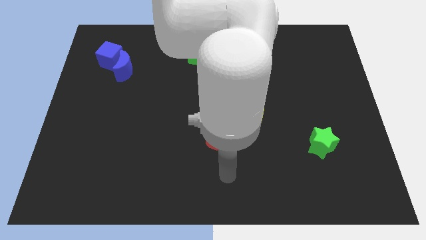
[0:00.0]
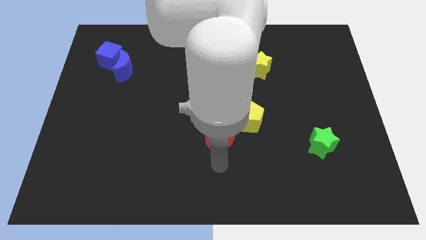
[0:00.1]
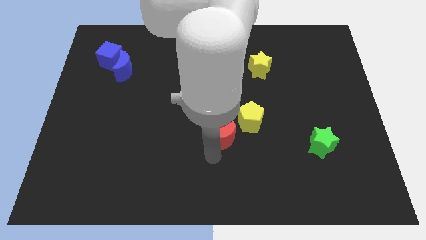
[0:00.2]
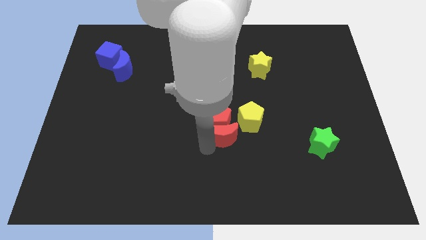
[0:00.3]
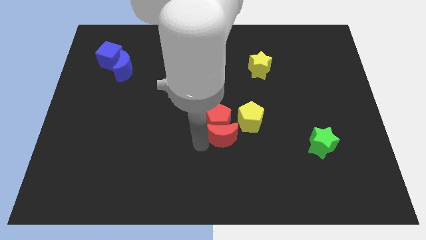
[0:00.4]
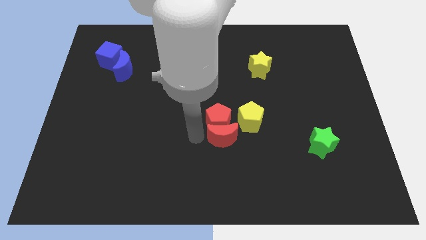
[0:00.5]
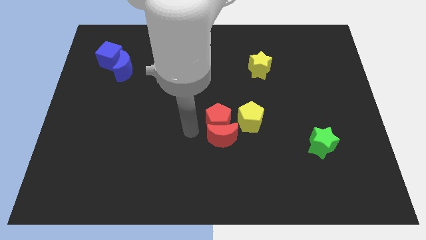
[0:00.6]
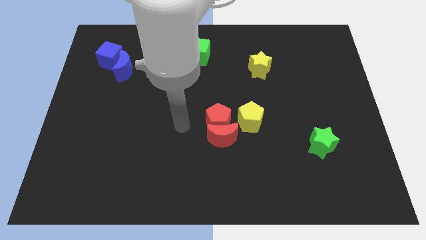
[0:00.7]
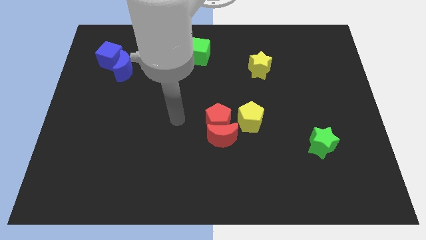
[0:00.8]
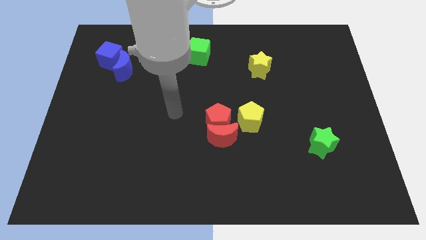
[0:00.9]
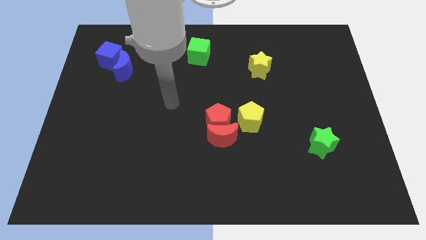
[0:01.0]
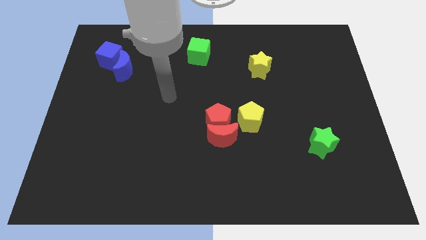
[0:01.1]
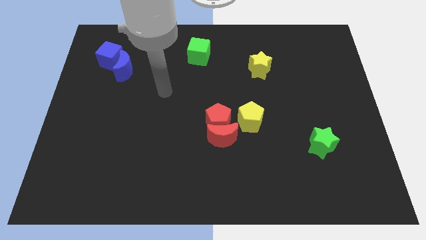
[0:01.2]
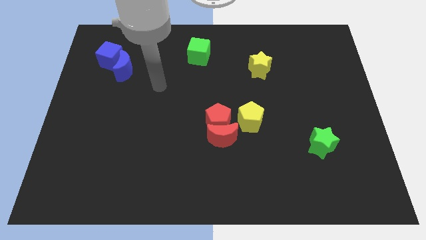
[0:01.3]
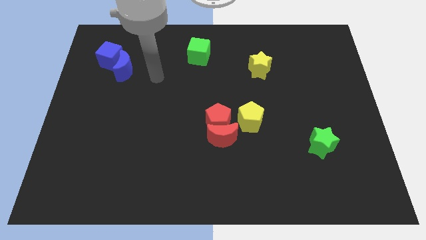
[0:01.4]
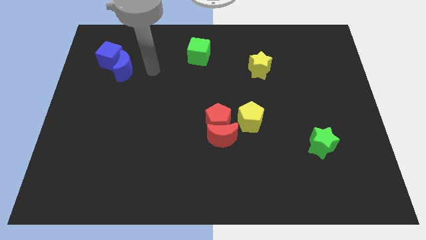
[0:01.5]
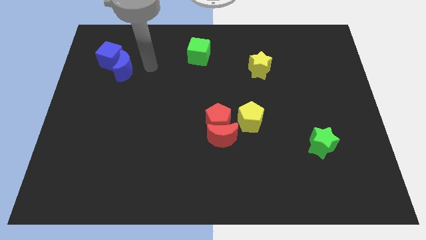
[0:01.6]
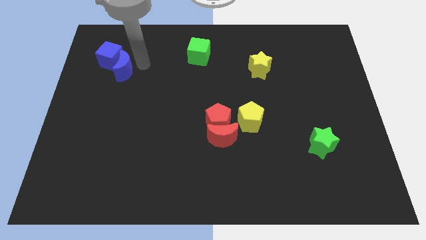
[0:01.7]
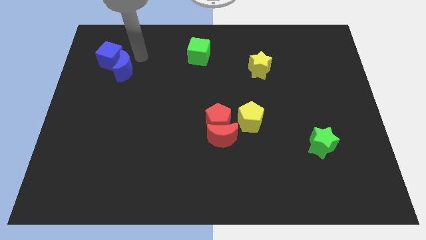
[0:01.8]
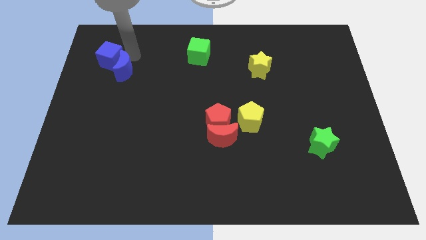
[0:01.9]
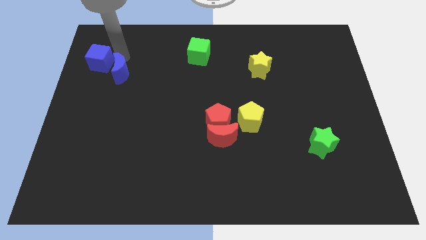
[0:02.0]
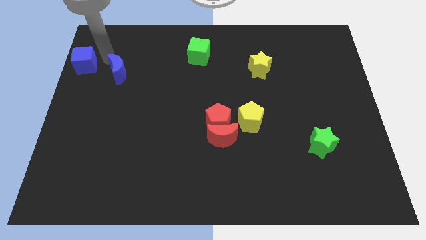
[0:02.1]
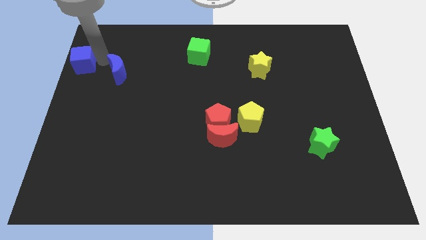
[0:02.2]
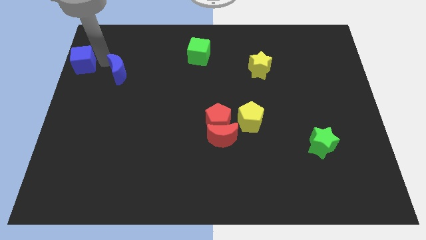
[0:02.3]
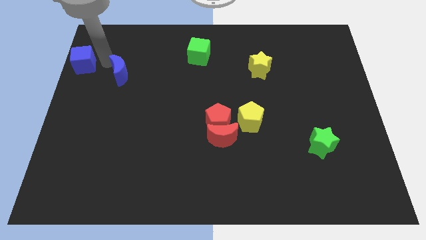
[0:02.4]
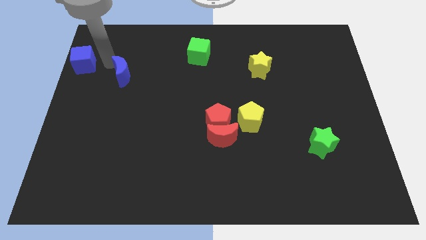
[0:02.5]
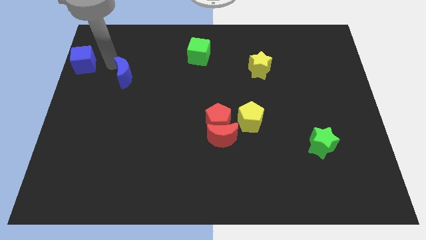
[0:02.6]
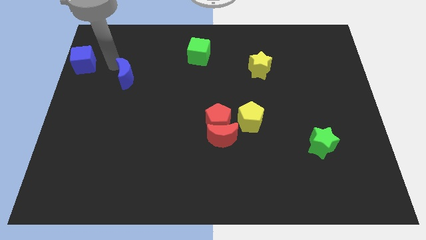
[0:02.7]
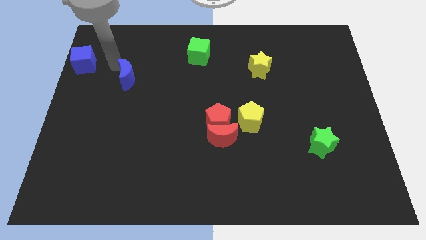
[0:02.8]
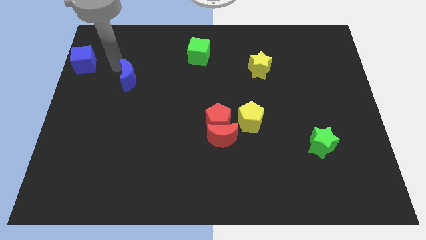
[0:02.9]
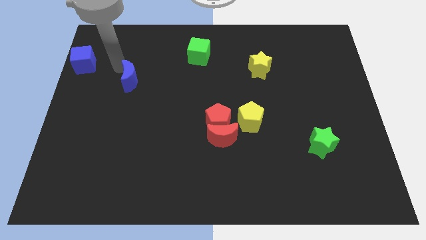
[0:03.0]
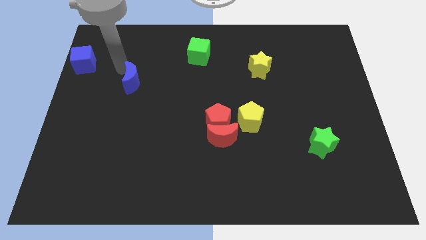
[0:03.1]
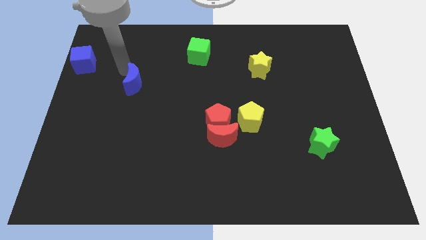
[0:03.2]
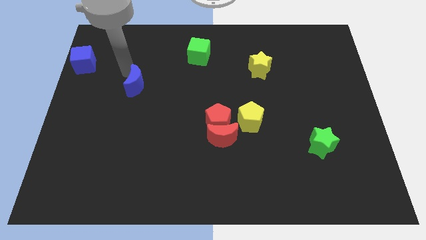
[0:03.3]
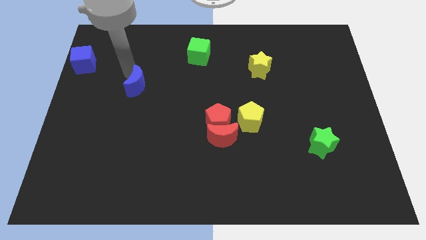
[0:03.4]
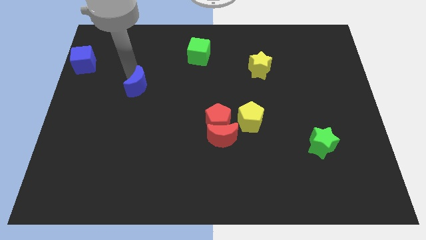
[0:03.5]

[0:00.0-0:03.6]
slightly slide the blue moon downwards and right diagonally

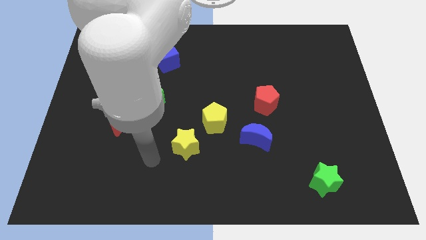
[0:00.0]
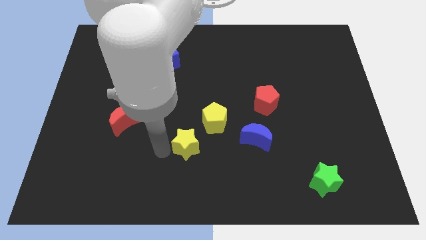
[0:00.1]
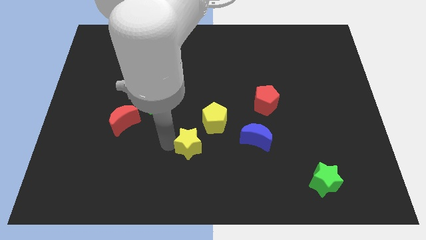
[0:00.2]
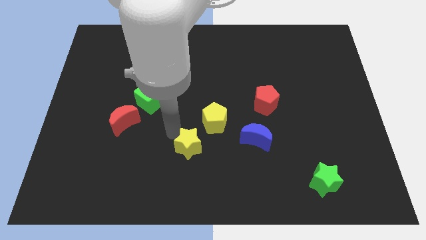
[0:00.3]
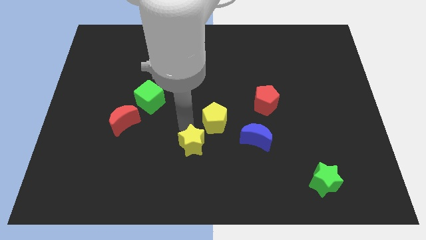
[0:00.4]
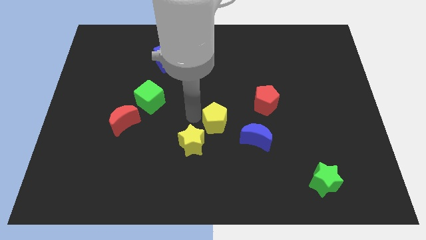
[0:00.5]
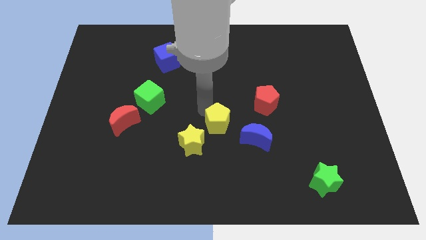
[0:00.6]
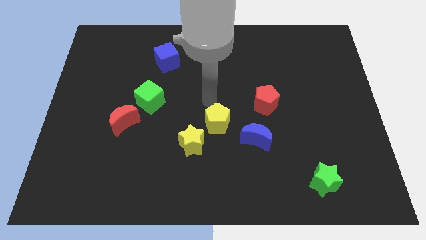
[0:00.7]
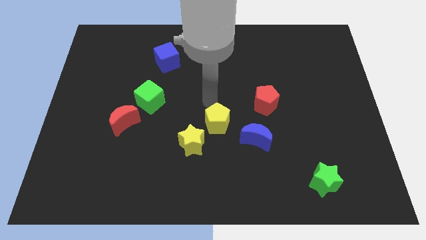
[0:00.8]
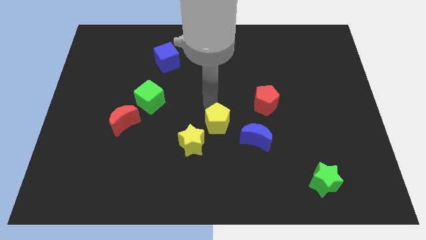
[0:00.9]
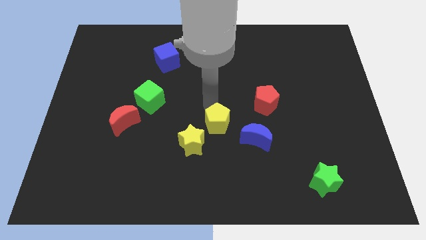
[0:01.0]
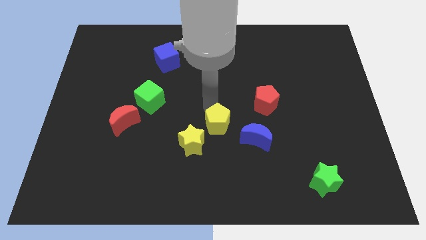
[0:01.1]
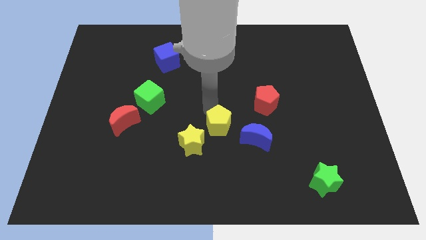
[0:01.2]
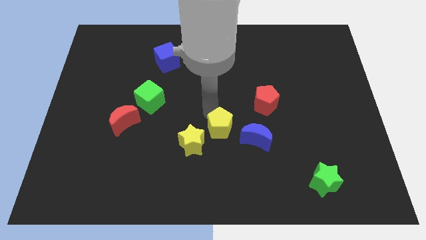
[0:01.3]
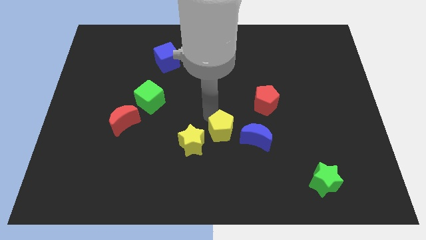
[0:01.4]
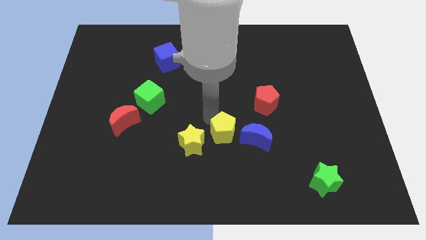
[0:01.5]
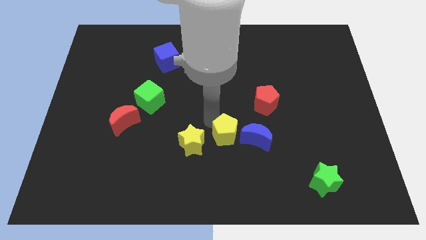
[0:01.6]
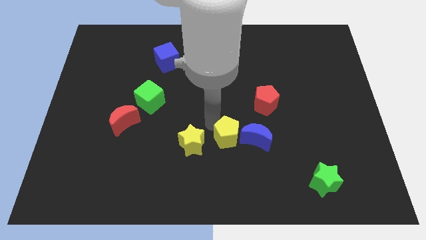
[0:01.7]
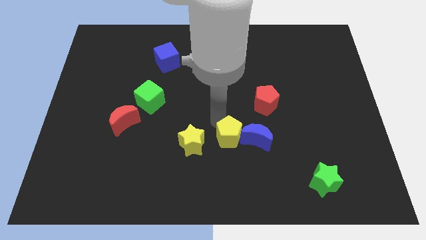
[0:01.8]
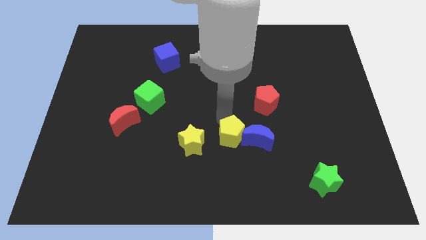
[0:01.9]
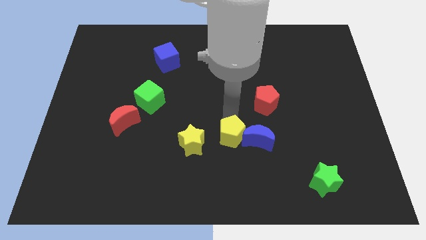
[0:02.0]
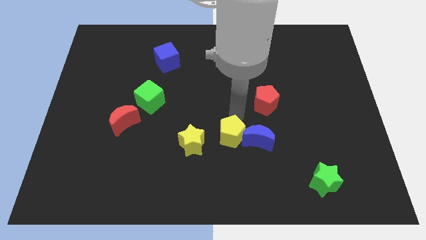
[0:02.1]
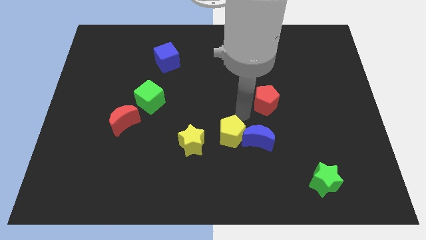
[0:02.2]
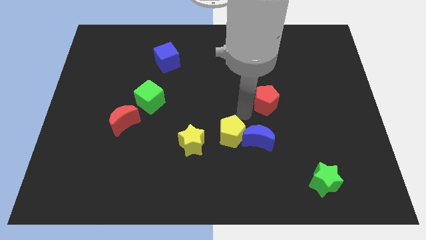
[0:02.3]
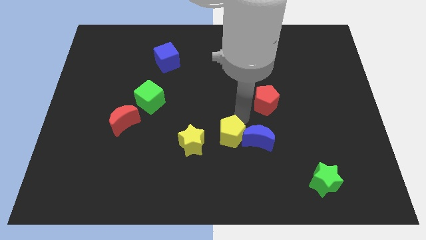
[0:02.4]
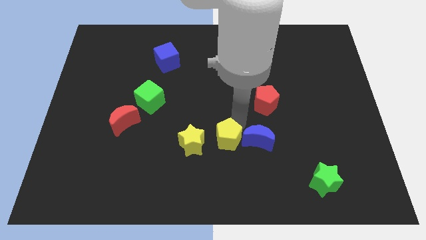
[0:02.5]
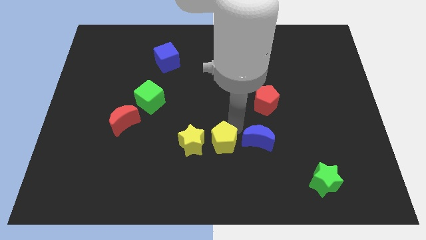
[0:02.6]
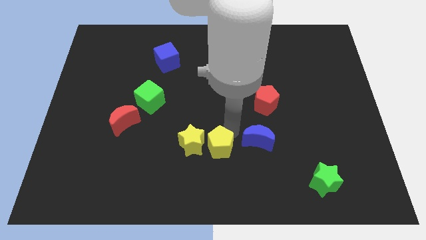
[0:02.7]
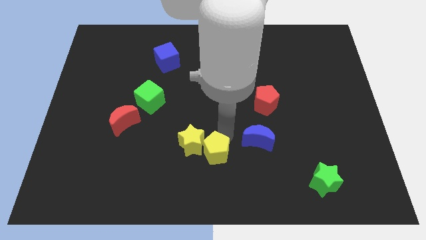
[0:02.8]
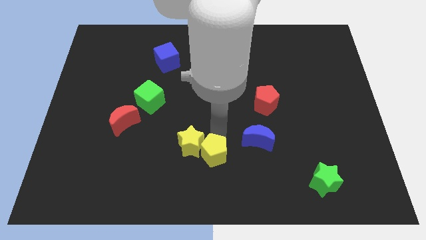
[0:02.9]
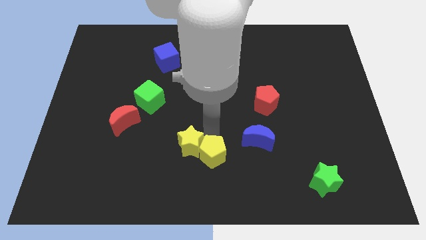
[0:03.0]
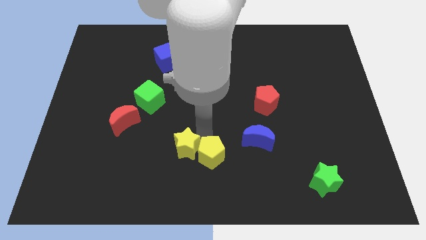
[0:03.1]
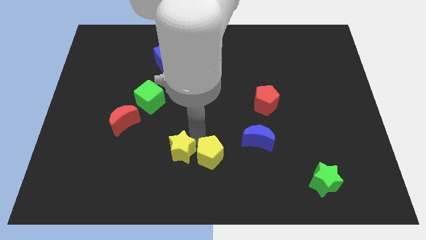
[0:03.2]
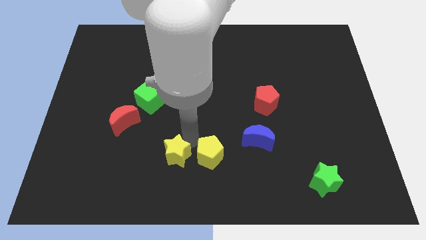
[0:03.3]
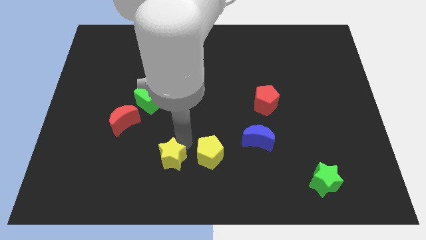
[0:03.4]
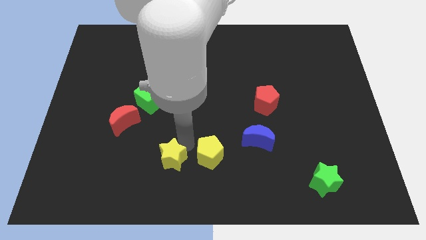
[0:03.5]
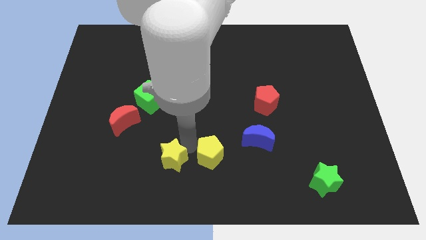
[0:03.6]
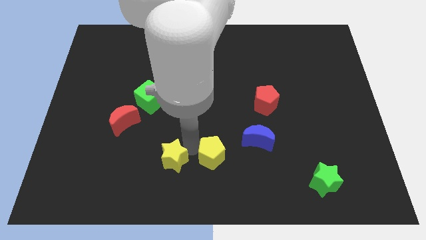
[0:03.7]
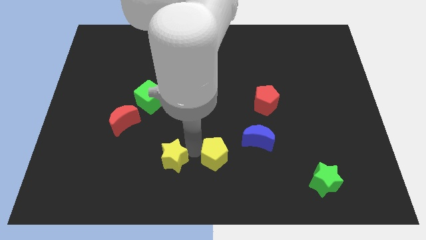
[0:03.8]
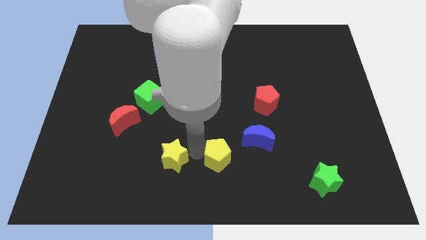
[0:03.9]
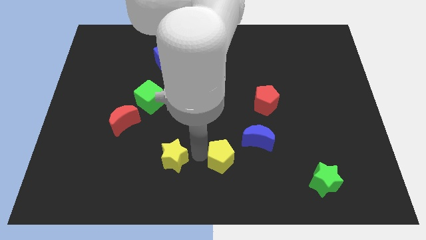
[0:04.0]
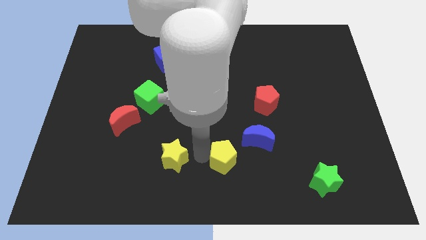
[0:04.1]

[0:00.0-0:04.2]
slightly move the yellow pentagon downwards and to the right
